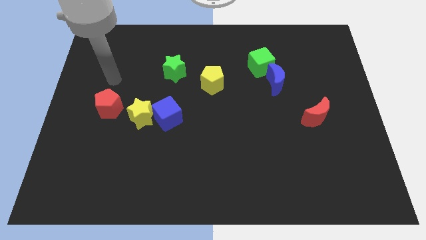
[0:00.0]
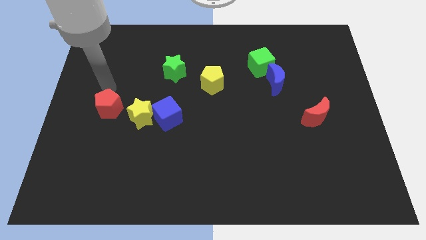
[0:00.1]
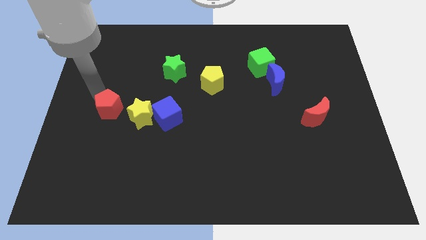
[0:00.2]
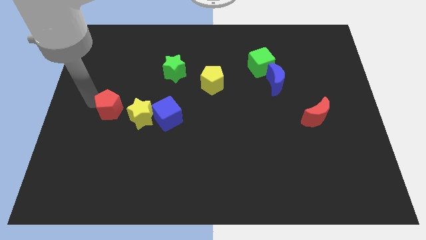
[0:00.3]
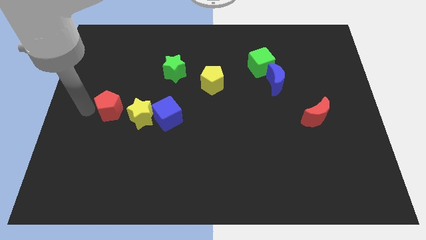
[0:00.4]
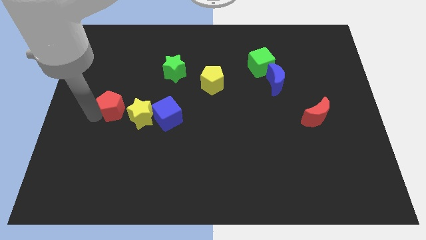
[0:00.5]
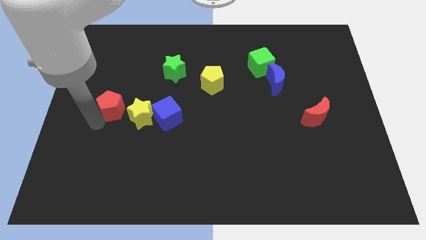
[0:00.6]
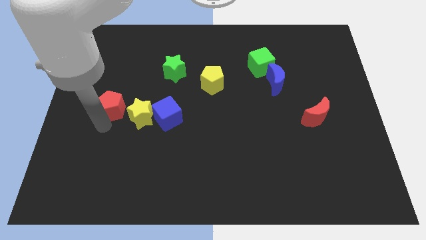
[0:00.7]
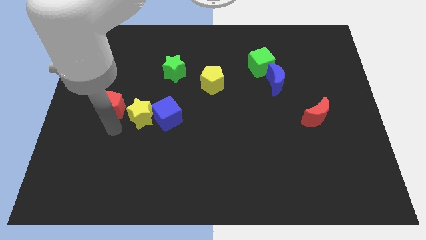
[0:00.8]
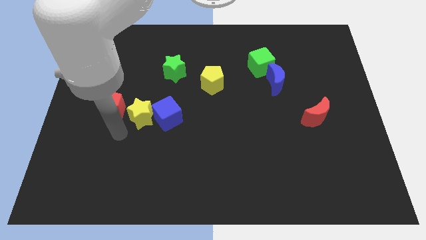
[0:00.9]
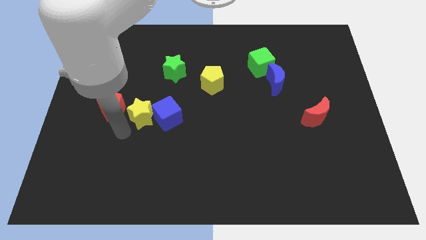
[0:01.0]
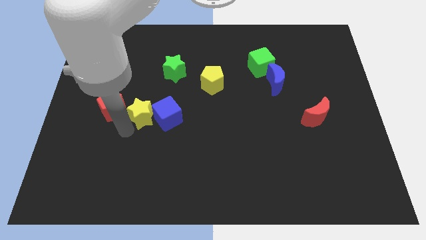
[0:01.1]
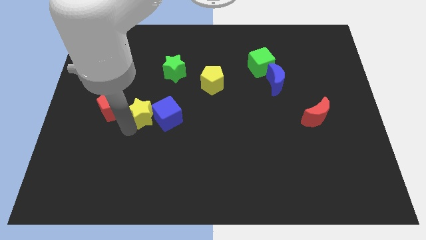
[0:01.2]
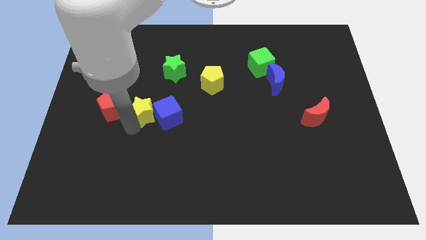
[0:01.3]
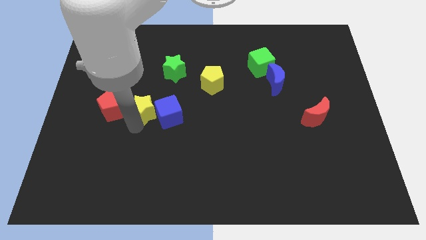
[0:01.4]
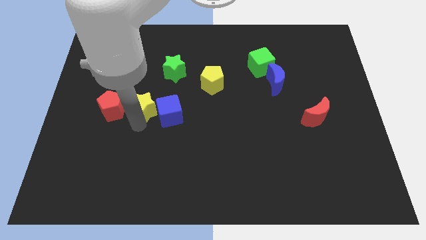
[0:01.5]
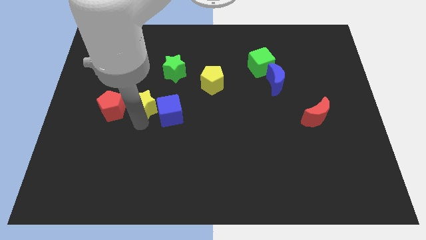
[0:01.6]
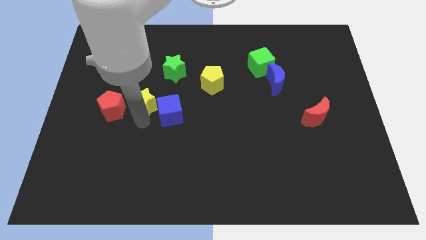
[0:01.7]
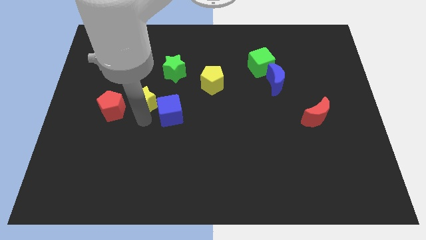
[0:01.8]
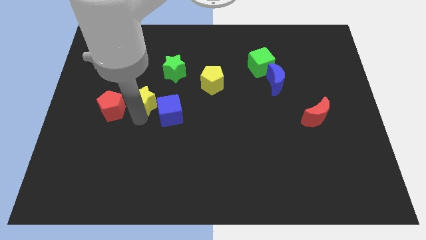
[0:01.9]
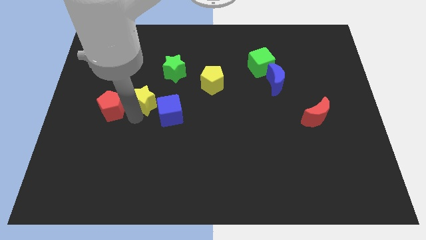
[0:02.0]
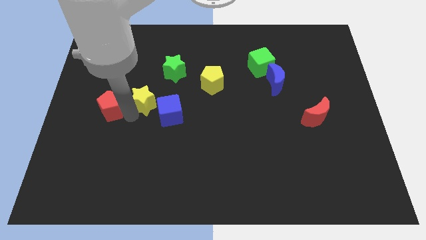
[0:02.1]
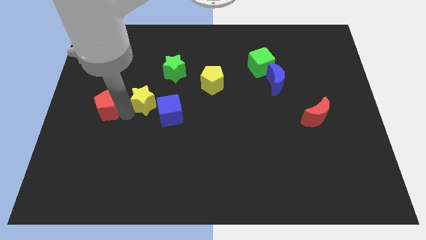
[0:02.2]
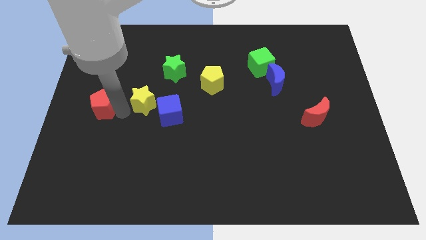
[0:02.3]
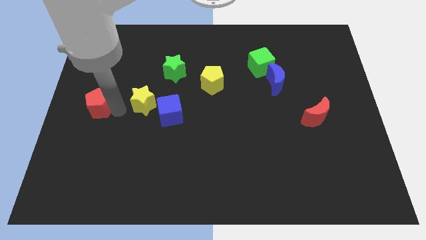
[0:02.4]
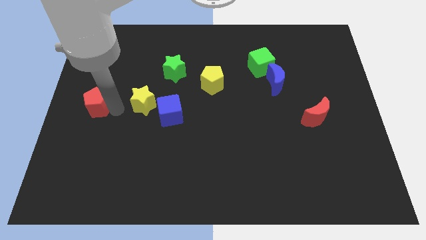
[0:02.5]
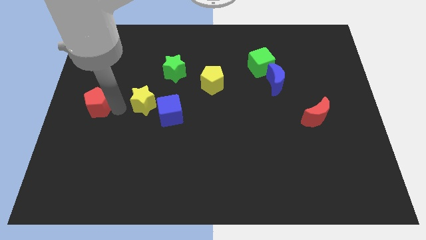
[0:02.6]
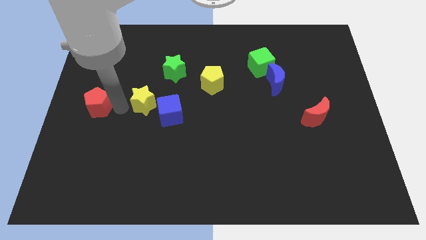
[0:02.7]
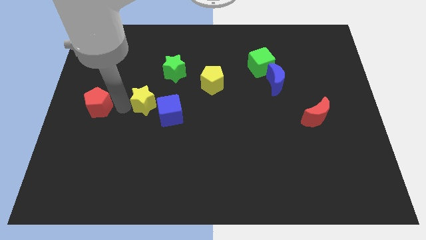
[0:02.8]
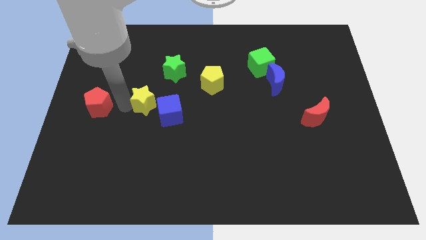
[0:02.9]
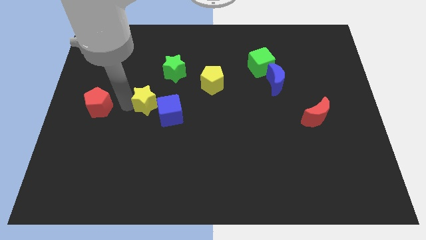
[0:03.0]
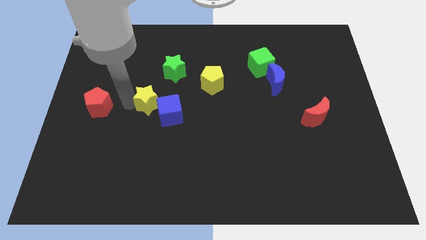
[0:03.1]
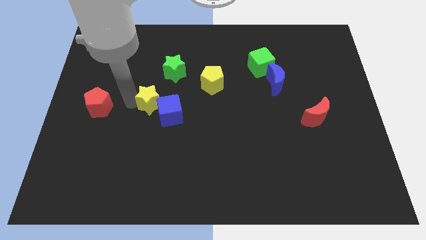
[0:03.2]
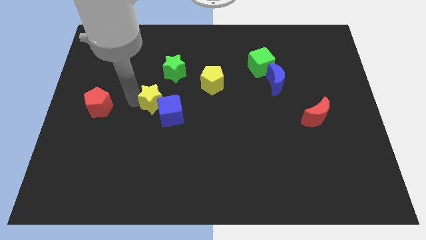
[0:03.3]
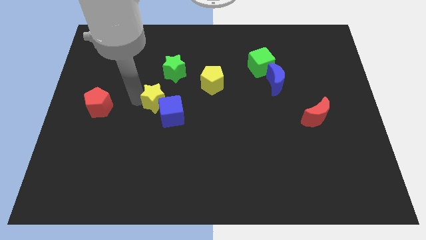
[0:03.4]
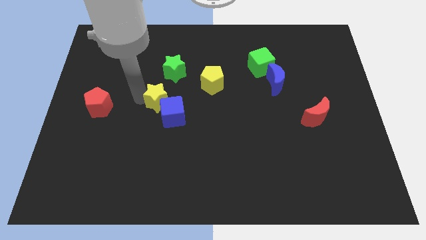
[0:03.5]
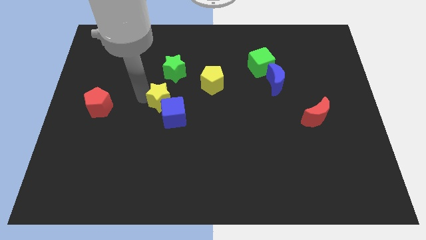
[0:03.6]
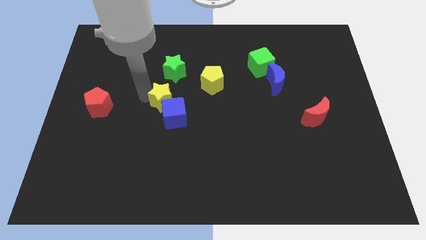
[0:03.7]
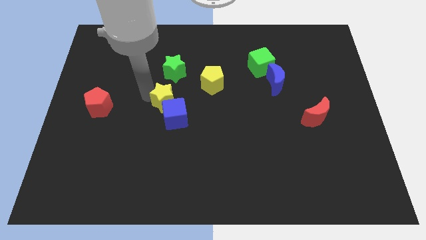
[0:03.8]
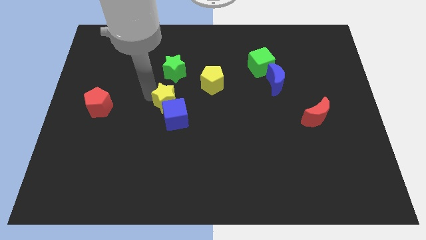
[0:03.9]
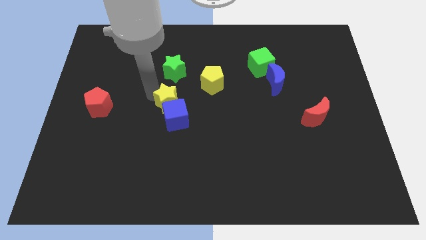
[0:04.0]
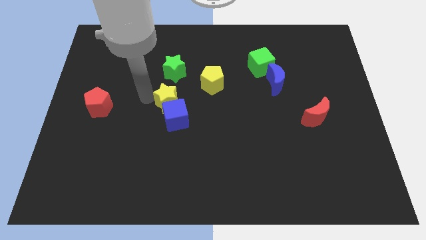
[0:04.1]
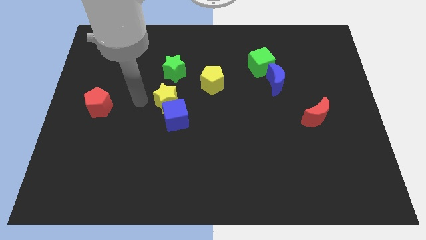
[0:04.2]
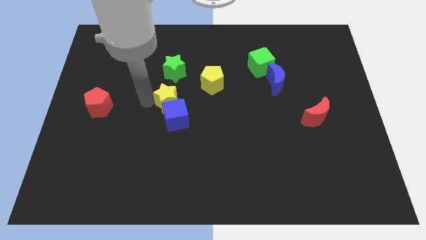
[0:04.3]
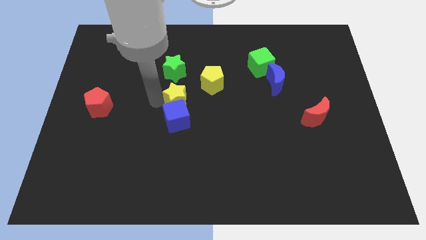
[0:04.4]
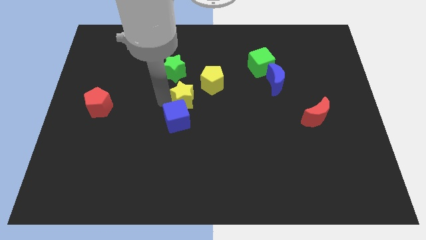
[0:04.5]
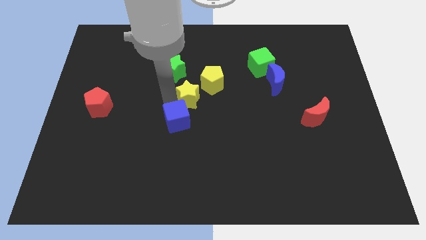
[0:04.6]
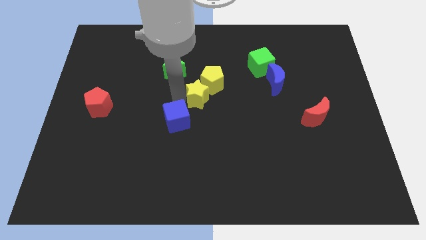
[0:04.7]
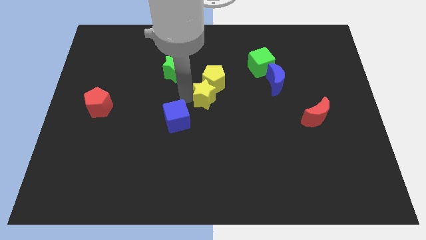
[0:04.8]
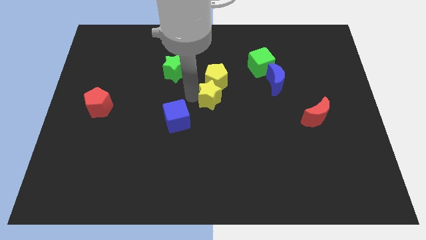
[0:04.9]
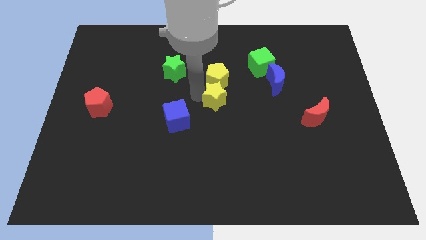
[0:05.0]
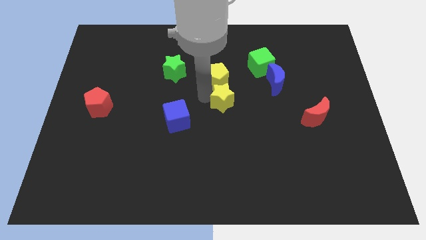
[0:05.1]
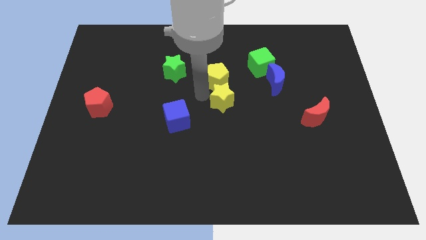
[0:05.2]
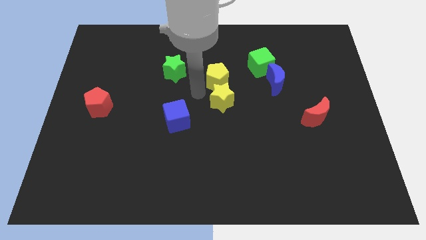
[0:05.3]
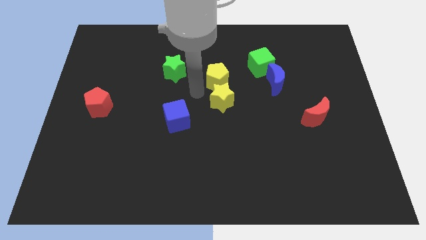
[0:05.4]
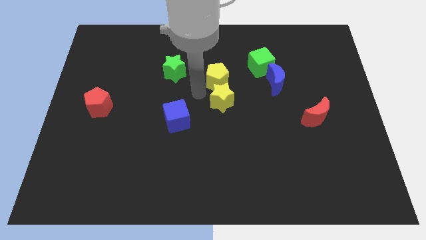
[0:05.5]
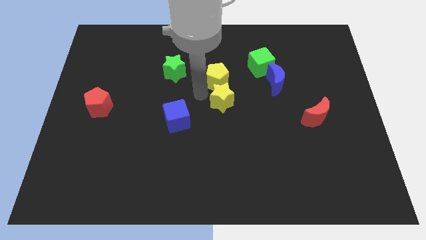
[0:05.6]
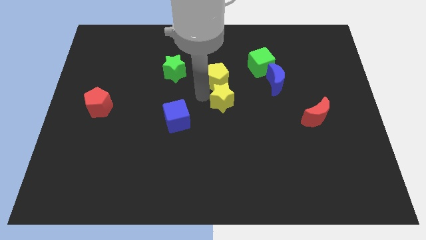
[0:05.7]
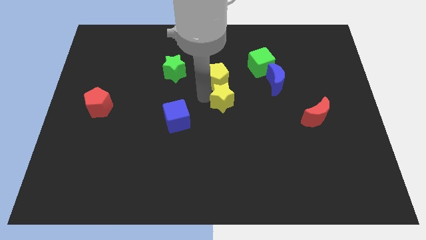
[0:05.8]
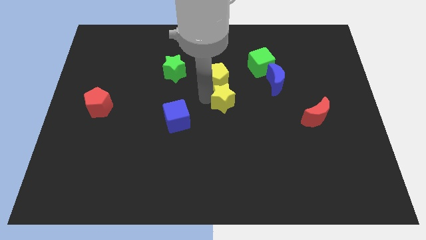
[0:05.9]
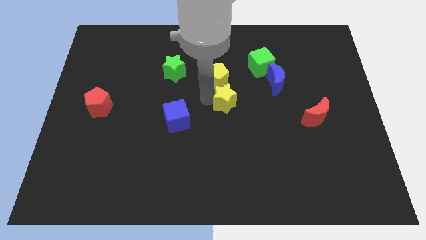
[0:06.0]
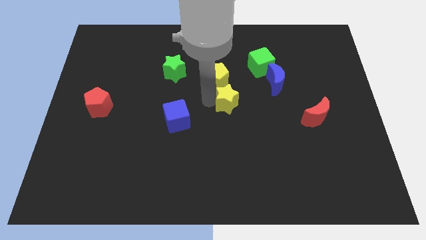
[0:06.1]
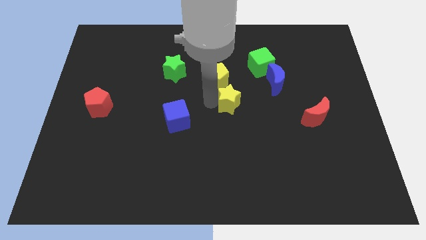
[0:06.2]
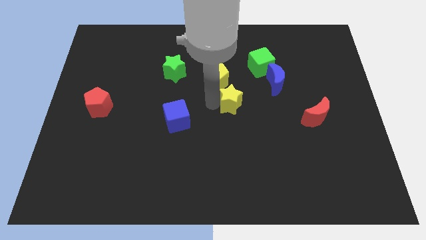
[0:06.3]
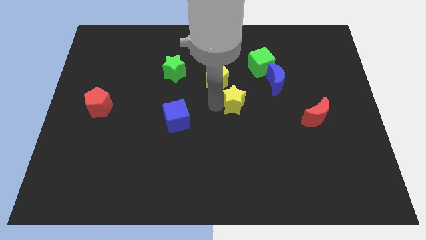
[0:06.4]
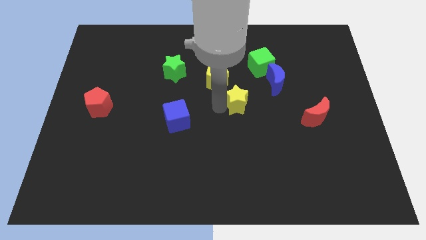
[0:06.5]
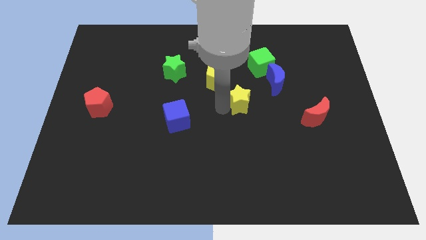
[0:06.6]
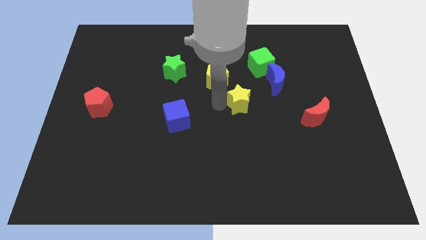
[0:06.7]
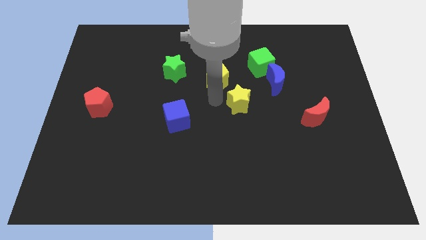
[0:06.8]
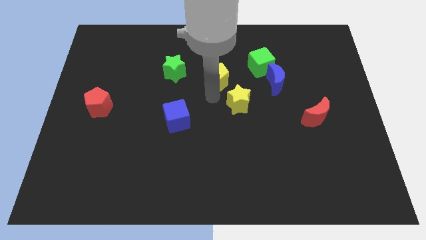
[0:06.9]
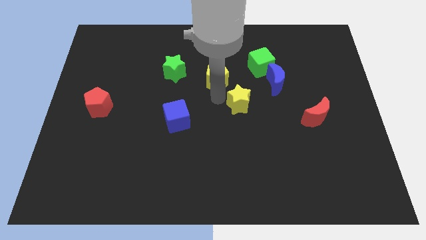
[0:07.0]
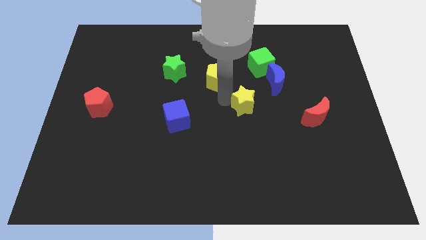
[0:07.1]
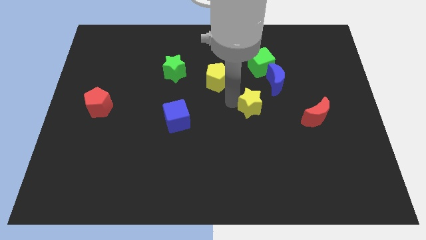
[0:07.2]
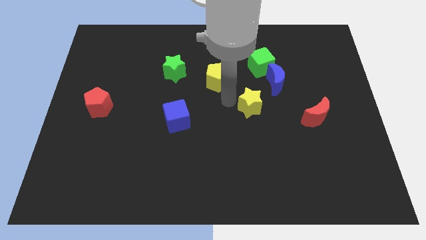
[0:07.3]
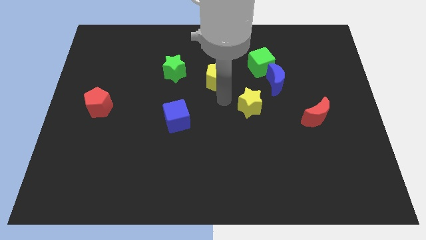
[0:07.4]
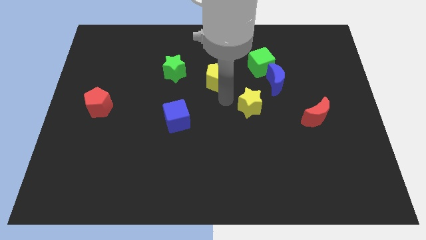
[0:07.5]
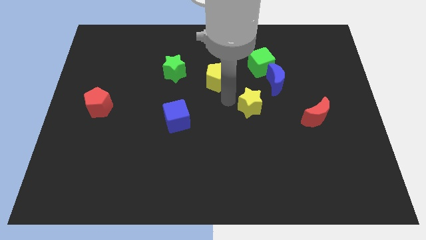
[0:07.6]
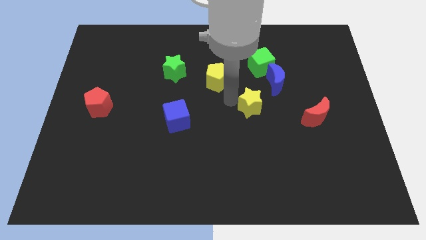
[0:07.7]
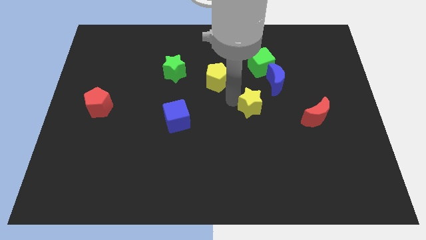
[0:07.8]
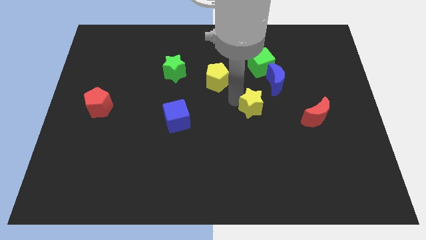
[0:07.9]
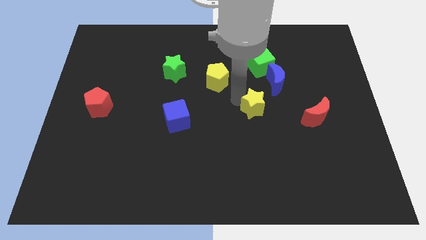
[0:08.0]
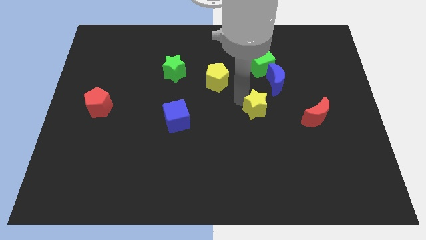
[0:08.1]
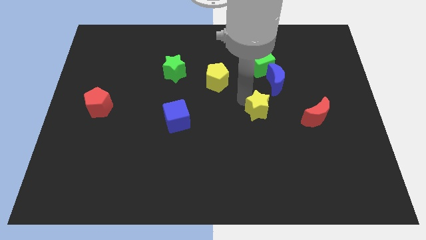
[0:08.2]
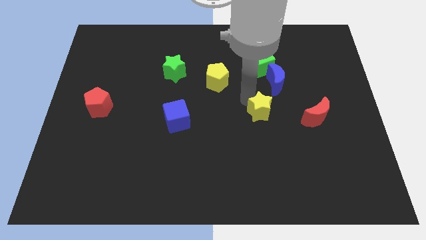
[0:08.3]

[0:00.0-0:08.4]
slide the yellow star to the bottom of the blue moon
